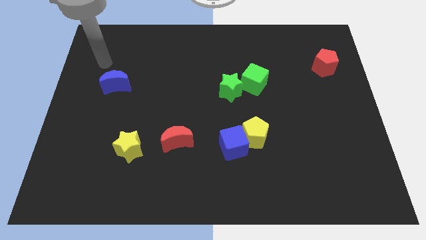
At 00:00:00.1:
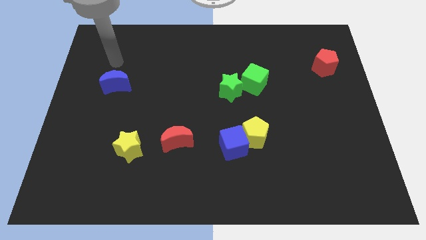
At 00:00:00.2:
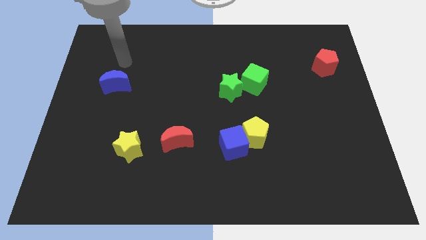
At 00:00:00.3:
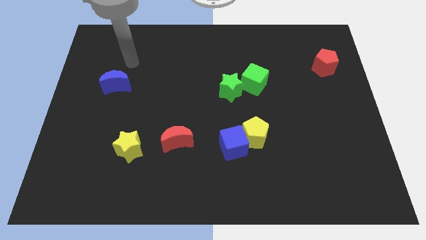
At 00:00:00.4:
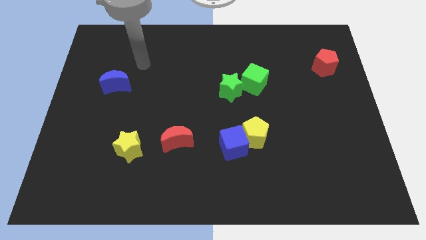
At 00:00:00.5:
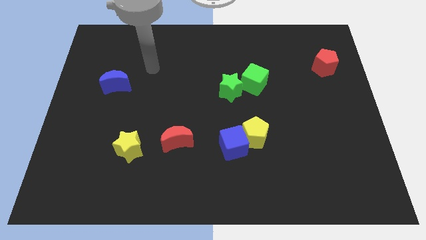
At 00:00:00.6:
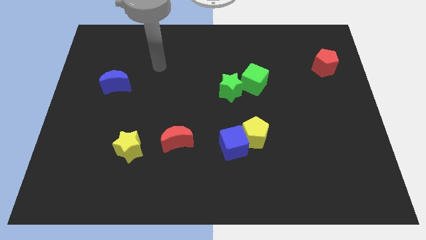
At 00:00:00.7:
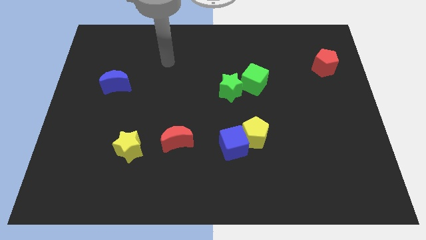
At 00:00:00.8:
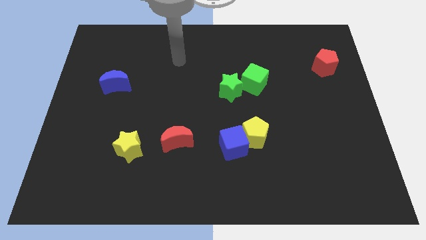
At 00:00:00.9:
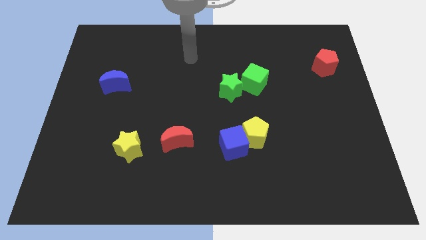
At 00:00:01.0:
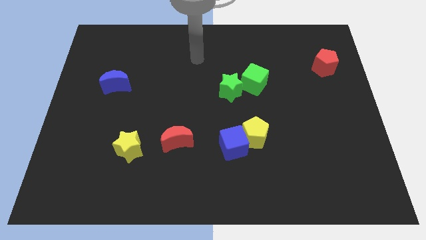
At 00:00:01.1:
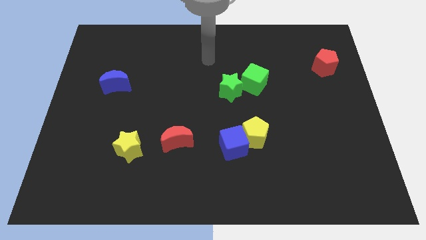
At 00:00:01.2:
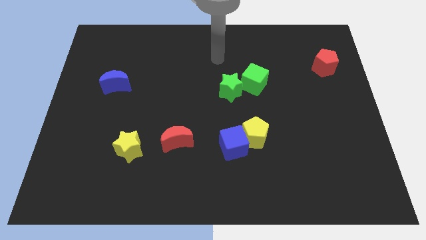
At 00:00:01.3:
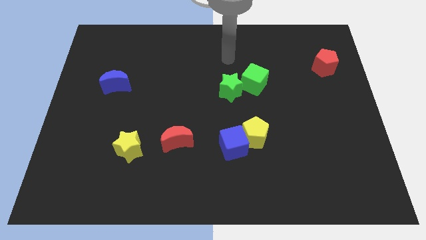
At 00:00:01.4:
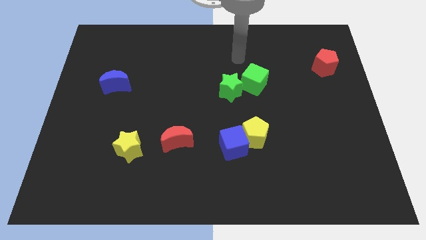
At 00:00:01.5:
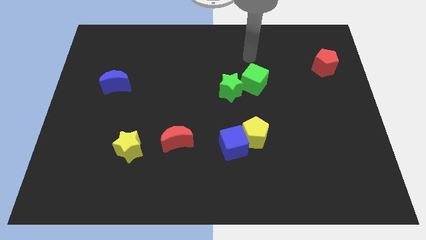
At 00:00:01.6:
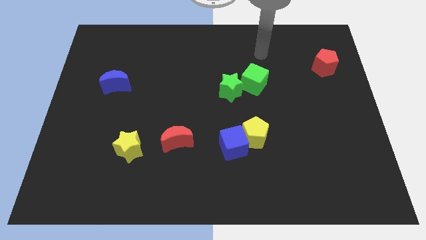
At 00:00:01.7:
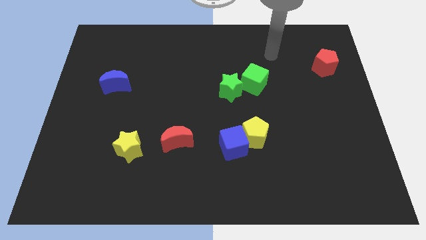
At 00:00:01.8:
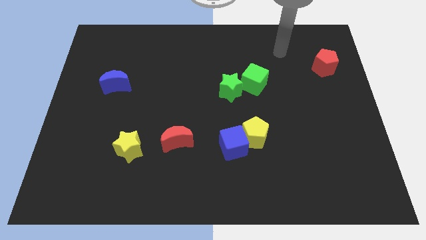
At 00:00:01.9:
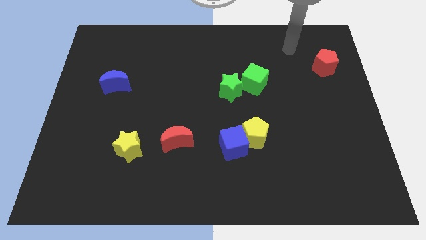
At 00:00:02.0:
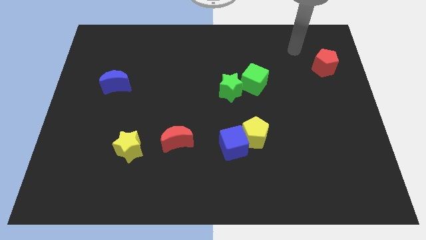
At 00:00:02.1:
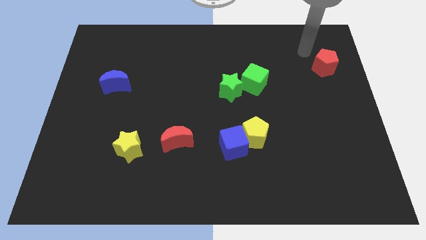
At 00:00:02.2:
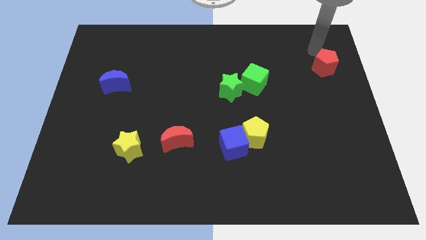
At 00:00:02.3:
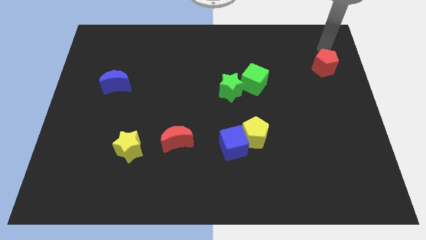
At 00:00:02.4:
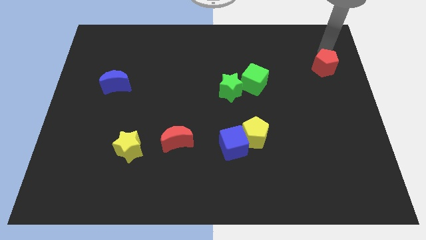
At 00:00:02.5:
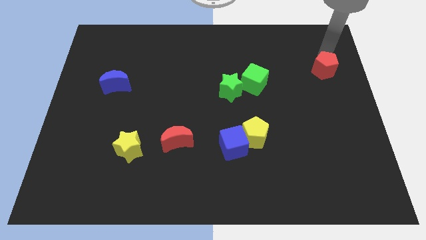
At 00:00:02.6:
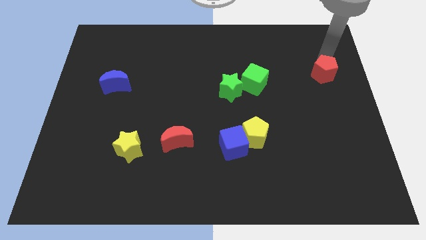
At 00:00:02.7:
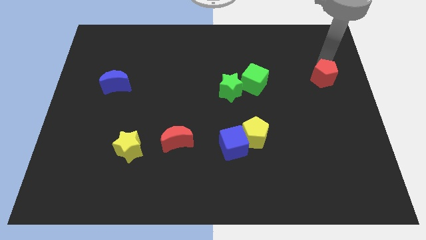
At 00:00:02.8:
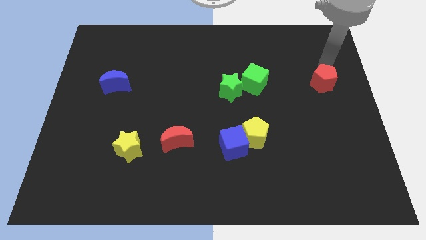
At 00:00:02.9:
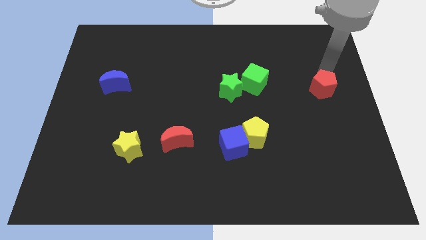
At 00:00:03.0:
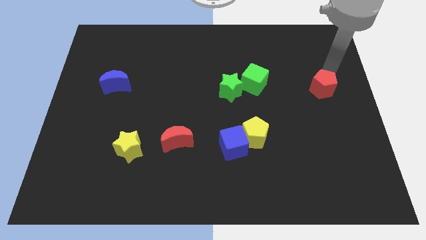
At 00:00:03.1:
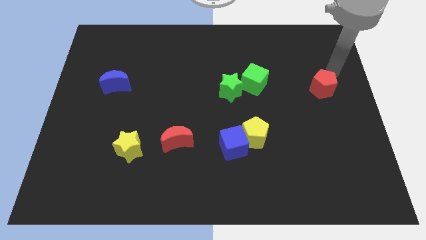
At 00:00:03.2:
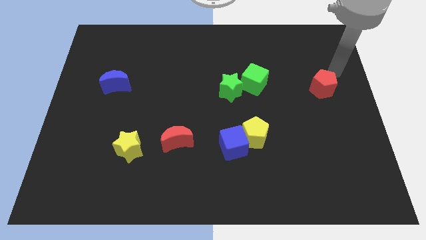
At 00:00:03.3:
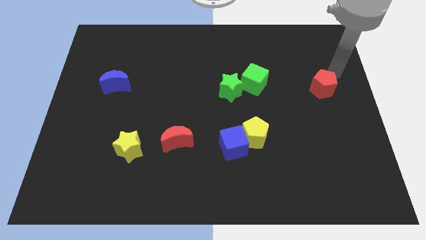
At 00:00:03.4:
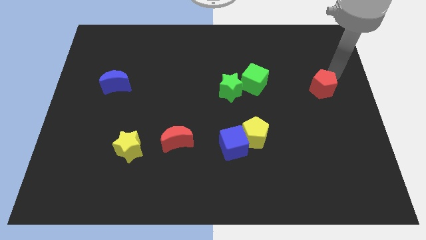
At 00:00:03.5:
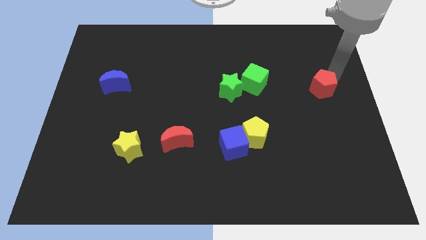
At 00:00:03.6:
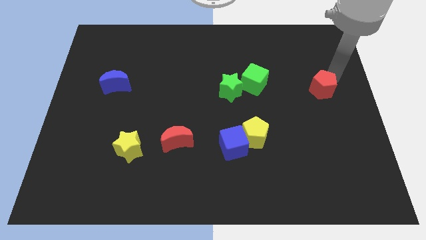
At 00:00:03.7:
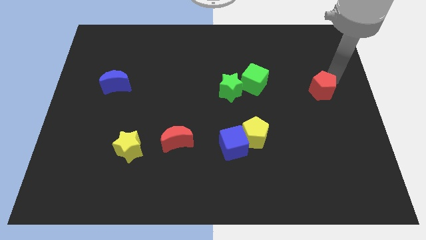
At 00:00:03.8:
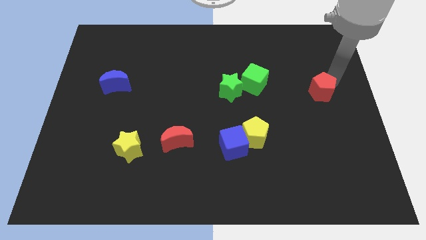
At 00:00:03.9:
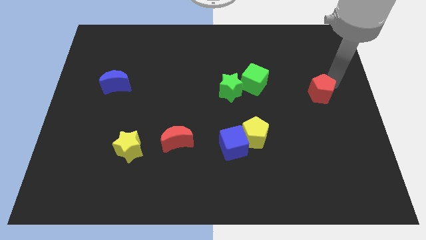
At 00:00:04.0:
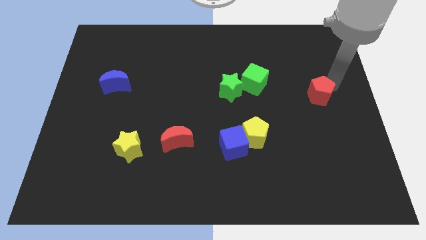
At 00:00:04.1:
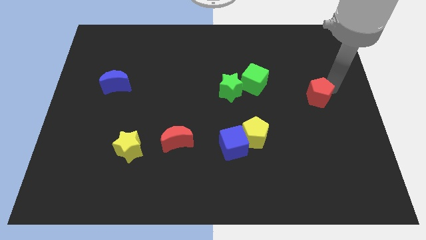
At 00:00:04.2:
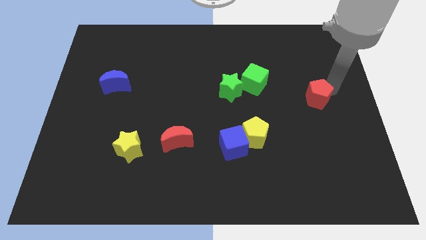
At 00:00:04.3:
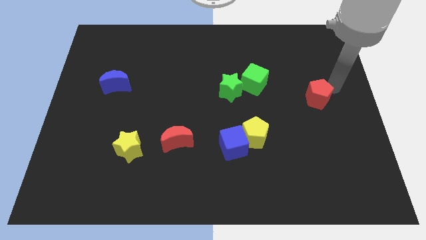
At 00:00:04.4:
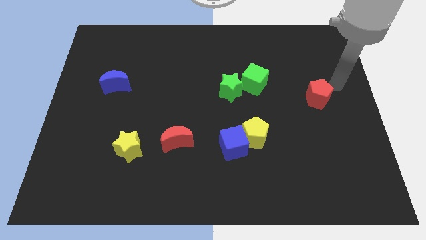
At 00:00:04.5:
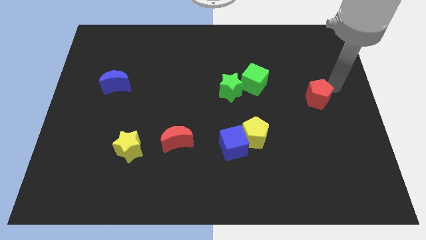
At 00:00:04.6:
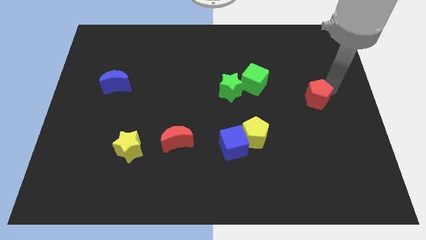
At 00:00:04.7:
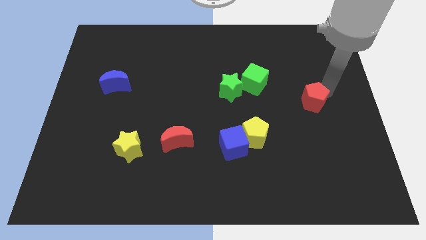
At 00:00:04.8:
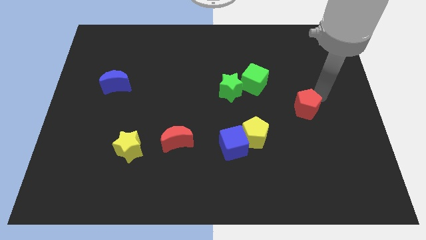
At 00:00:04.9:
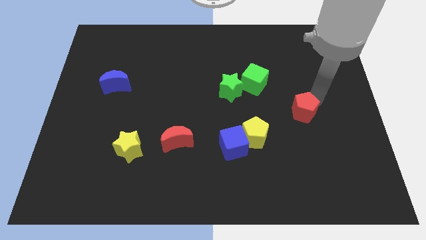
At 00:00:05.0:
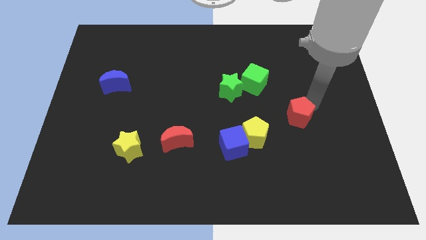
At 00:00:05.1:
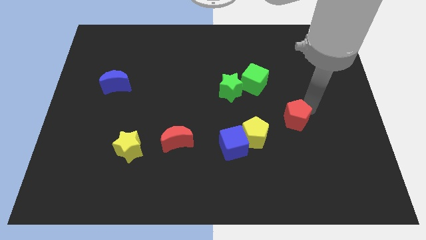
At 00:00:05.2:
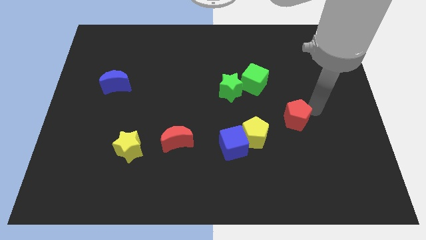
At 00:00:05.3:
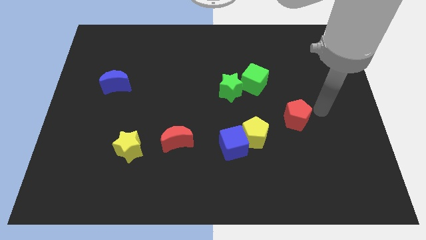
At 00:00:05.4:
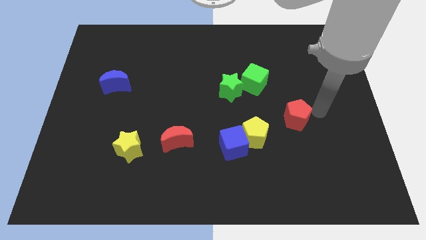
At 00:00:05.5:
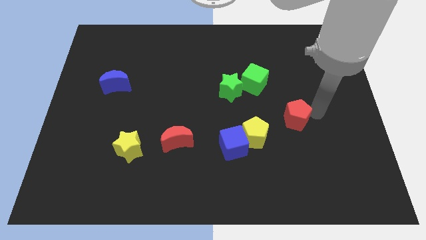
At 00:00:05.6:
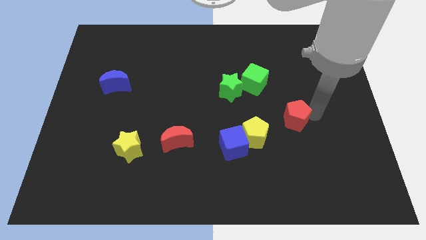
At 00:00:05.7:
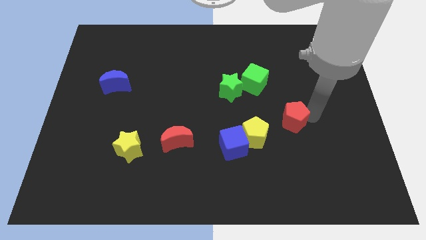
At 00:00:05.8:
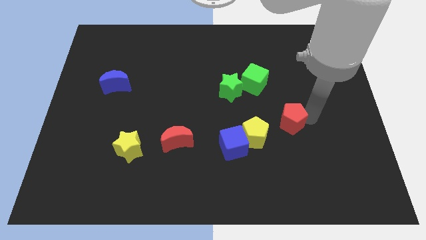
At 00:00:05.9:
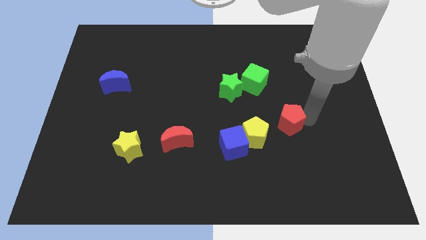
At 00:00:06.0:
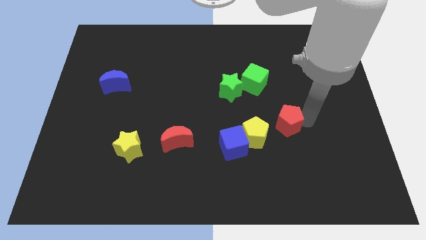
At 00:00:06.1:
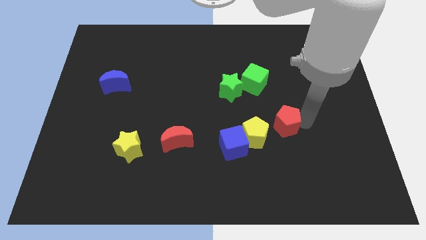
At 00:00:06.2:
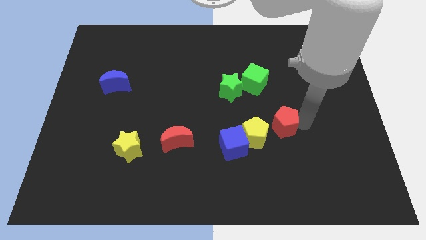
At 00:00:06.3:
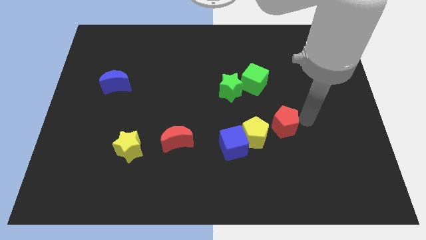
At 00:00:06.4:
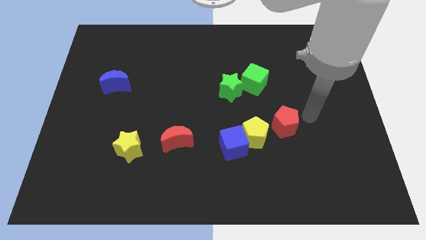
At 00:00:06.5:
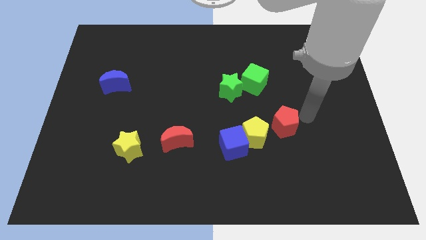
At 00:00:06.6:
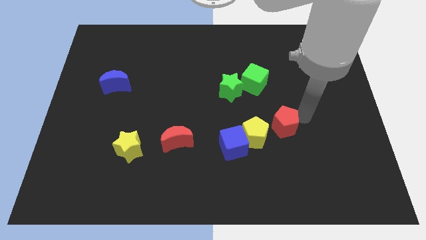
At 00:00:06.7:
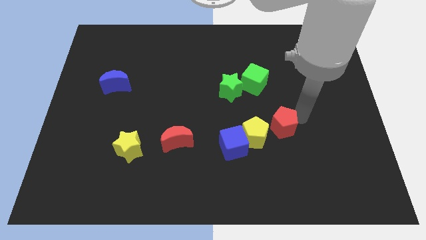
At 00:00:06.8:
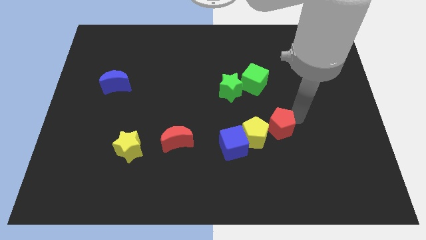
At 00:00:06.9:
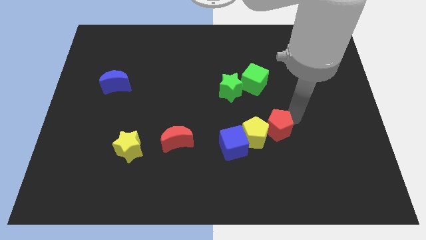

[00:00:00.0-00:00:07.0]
slide the red pentagon to the yellow pentagon
